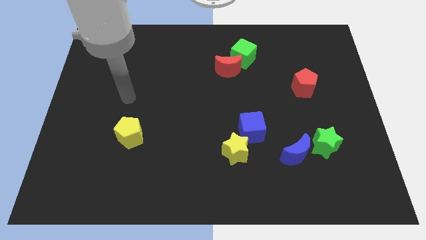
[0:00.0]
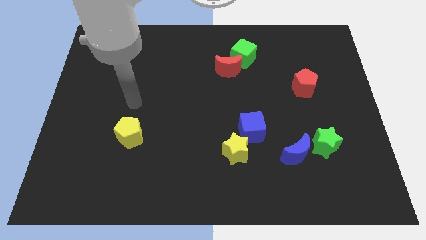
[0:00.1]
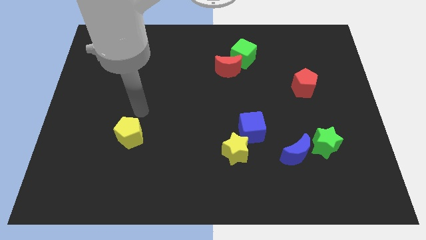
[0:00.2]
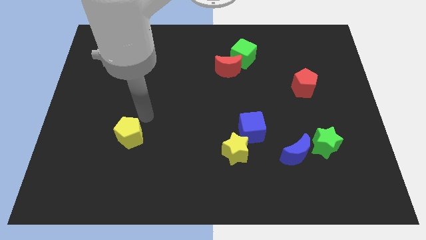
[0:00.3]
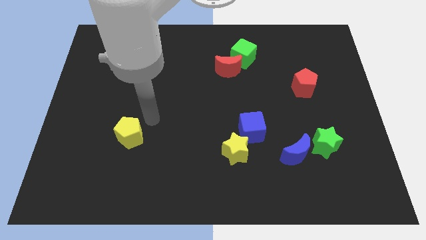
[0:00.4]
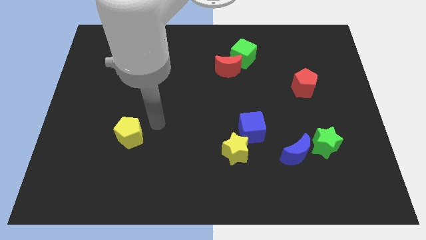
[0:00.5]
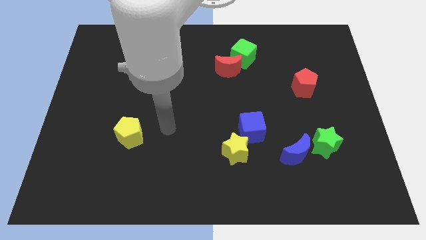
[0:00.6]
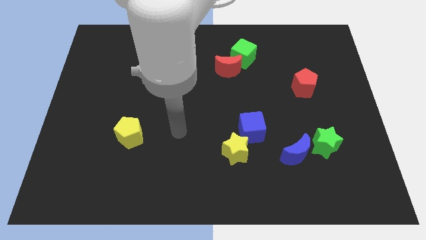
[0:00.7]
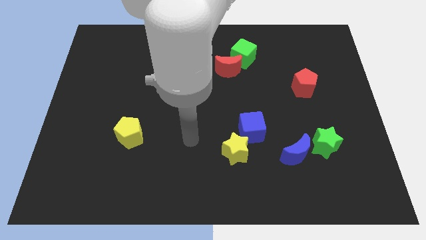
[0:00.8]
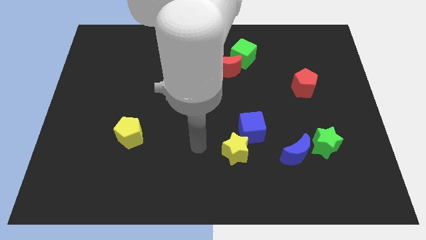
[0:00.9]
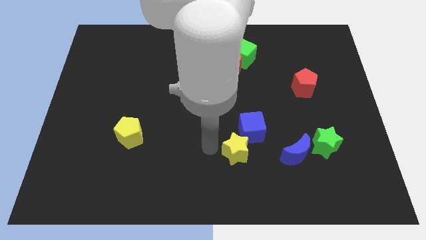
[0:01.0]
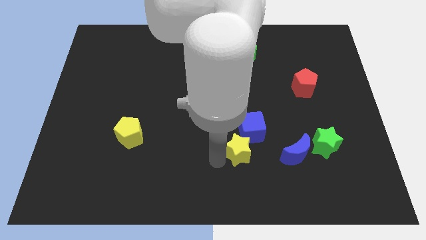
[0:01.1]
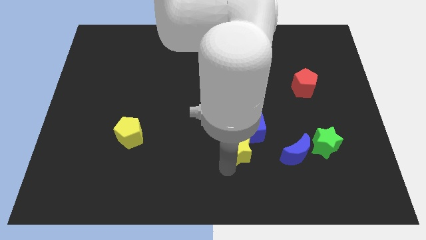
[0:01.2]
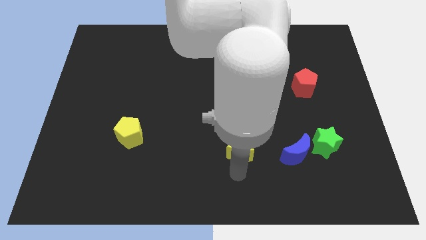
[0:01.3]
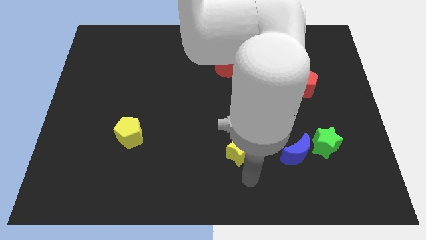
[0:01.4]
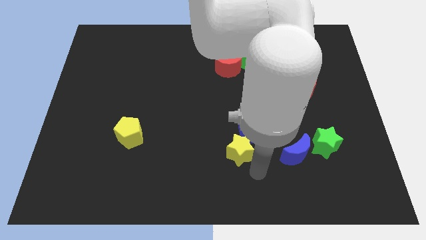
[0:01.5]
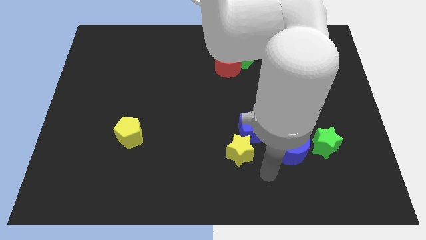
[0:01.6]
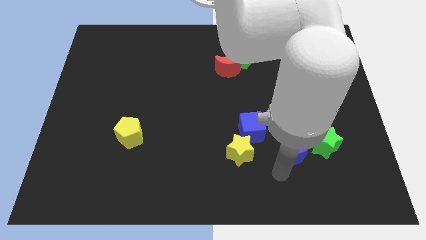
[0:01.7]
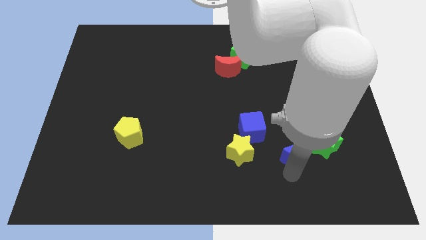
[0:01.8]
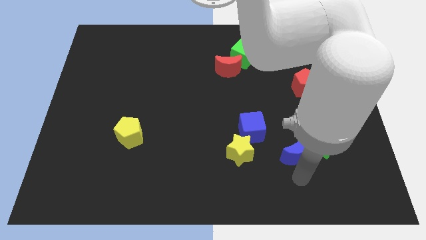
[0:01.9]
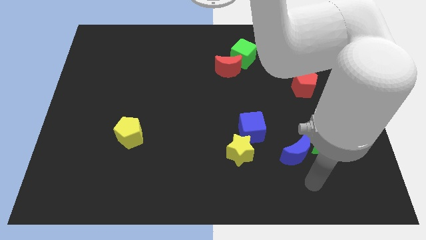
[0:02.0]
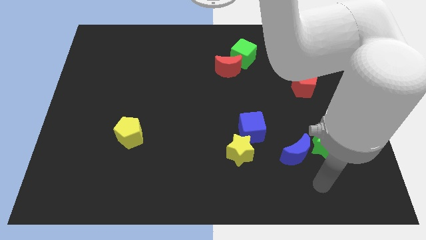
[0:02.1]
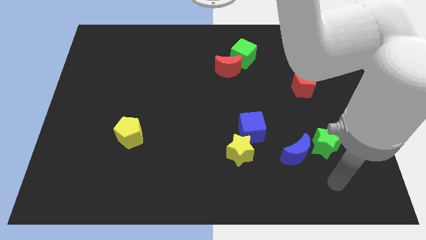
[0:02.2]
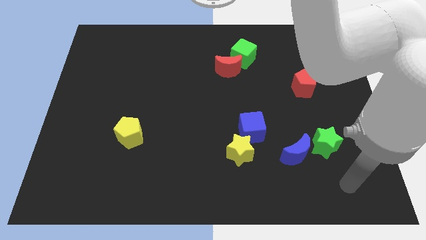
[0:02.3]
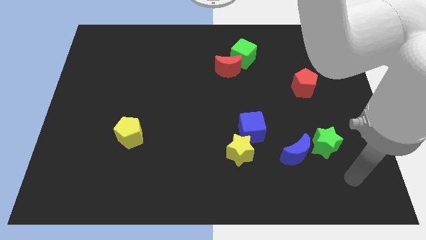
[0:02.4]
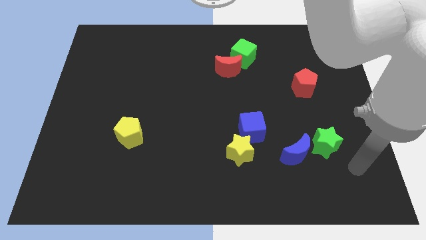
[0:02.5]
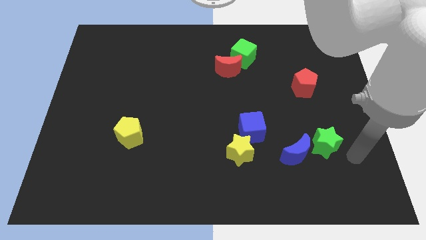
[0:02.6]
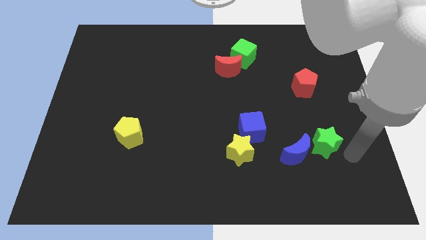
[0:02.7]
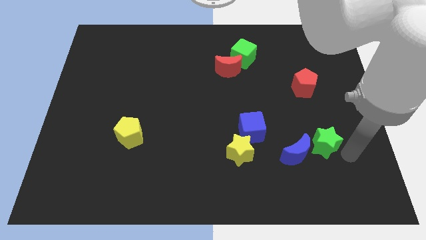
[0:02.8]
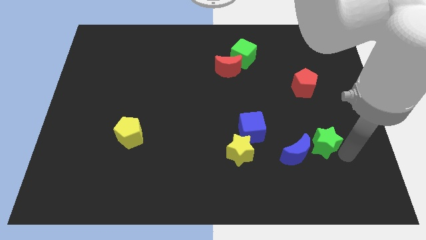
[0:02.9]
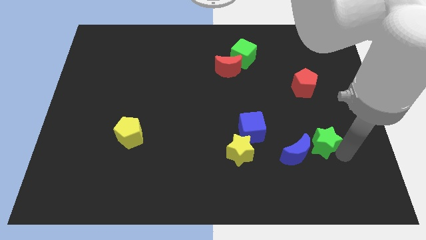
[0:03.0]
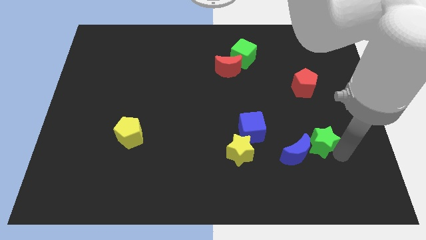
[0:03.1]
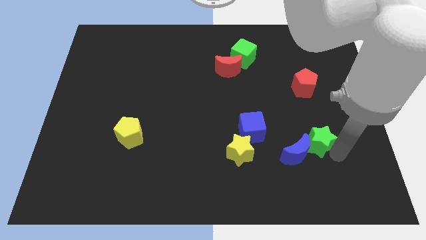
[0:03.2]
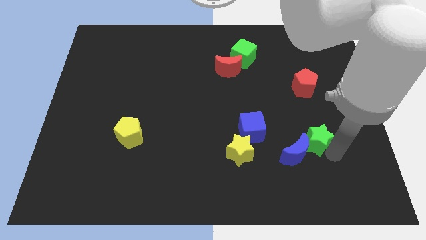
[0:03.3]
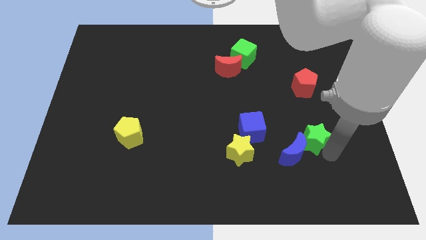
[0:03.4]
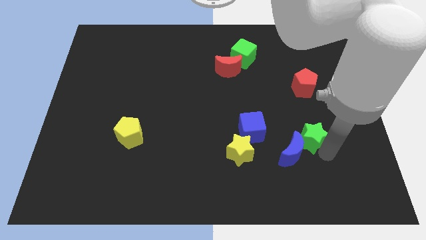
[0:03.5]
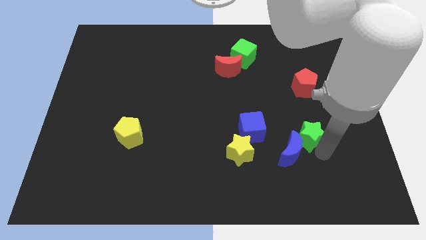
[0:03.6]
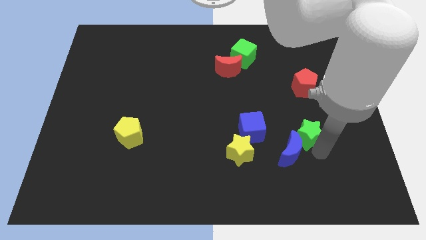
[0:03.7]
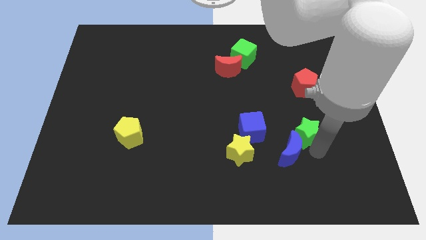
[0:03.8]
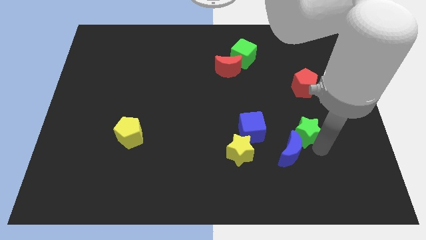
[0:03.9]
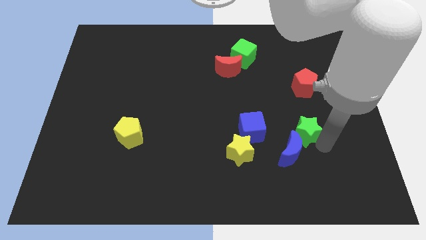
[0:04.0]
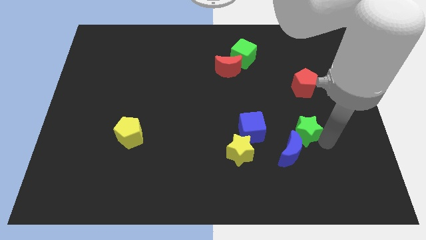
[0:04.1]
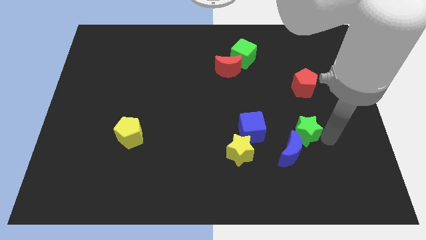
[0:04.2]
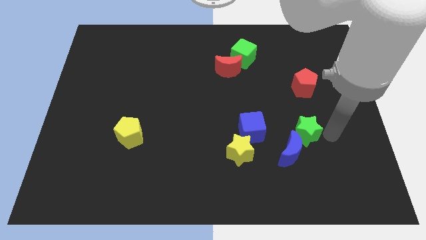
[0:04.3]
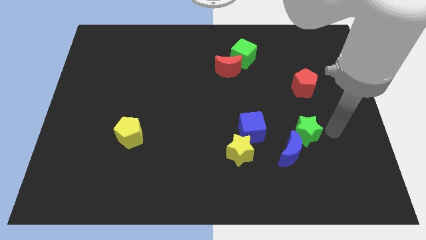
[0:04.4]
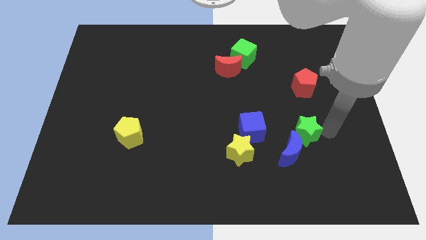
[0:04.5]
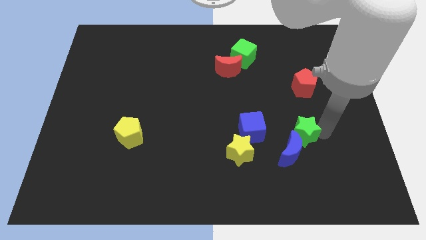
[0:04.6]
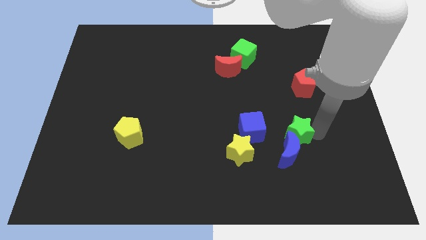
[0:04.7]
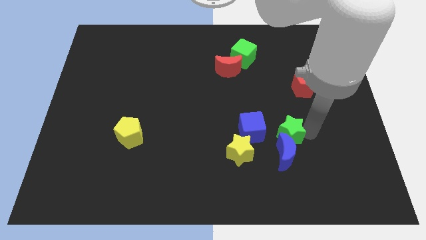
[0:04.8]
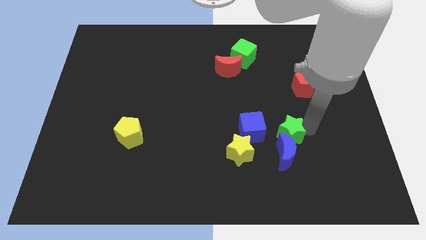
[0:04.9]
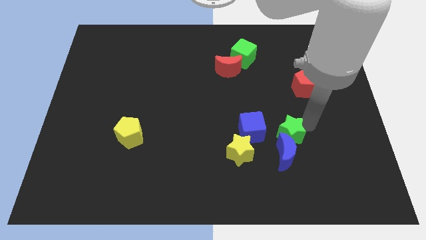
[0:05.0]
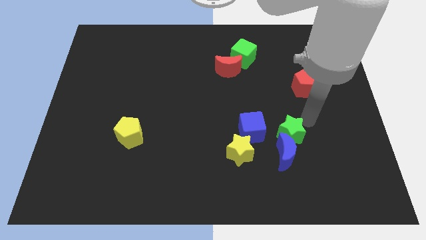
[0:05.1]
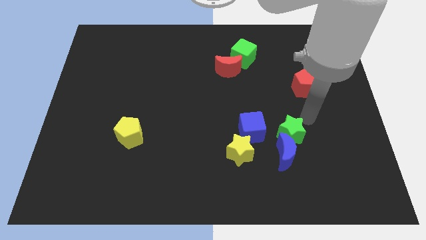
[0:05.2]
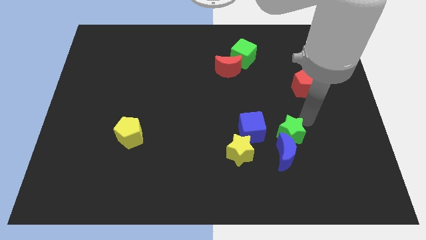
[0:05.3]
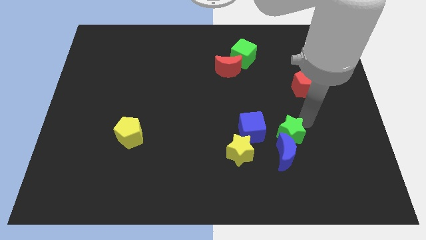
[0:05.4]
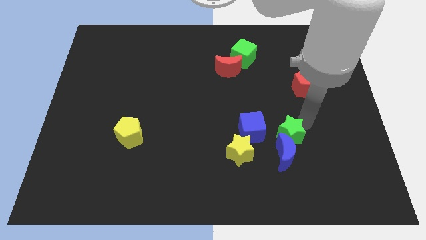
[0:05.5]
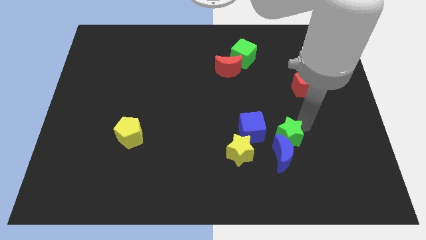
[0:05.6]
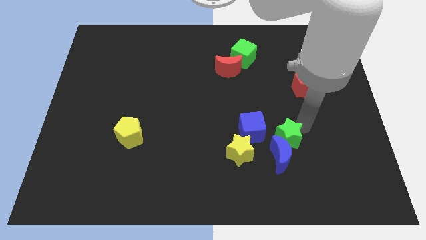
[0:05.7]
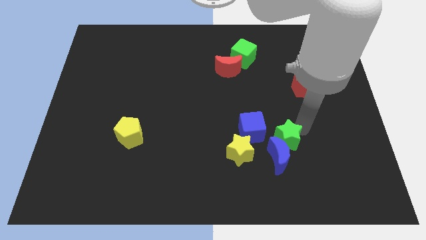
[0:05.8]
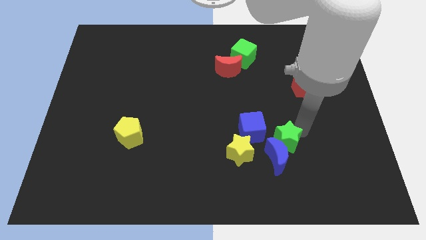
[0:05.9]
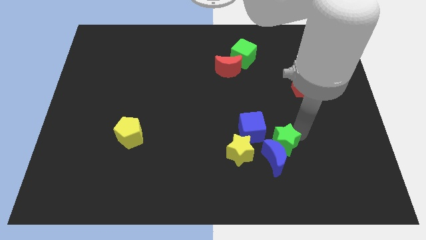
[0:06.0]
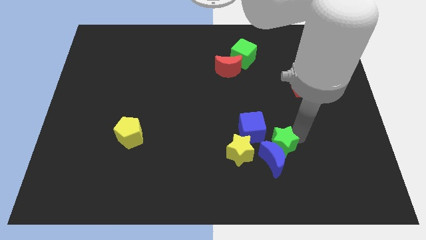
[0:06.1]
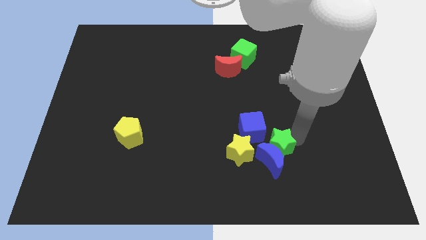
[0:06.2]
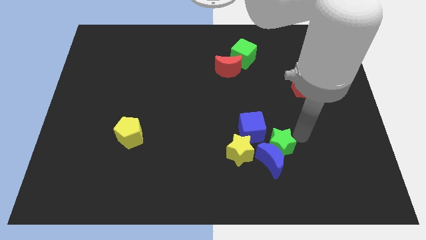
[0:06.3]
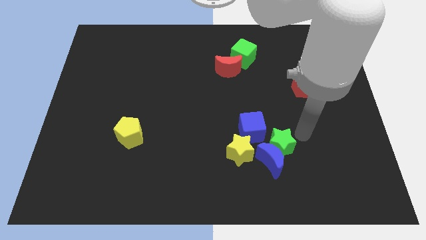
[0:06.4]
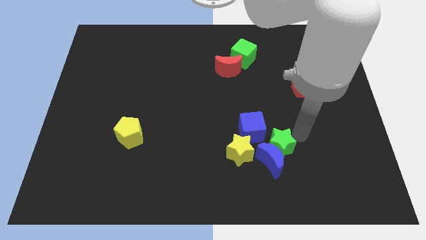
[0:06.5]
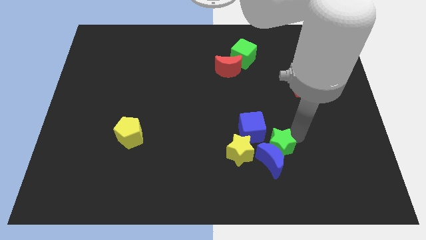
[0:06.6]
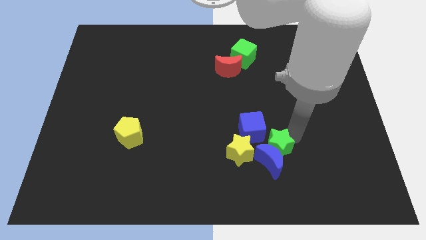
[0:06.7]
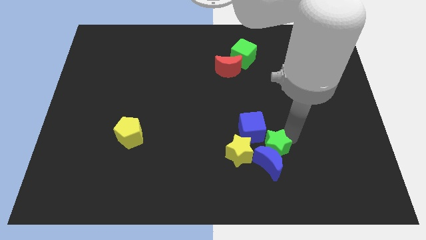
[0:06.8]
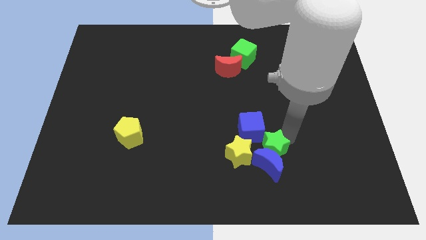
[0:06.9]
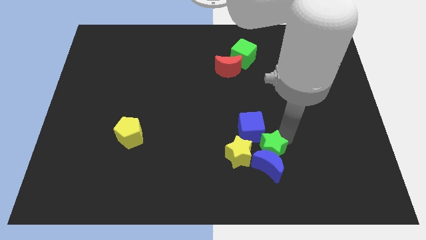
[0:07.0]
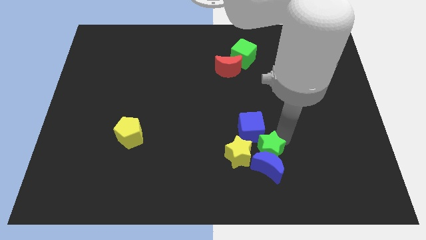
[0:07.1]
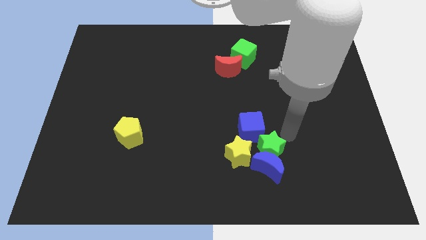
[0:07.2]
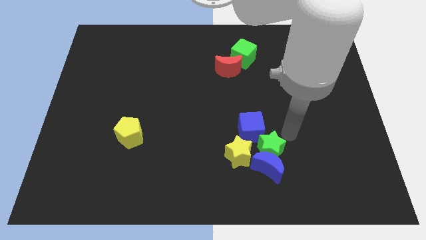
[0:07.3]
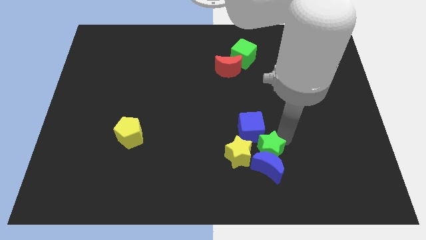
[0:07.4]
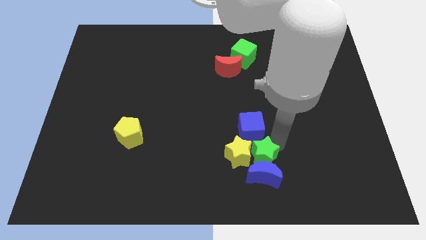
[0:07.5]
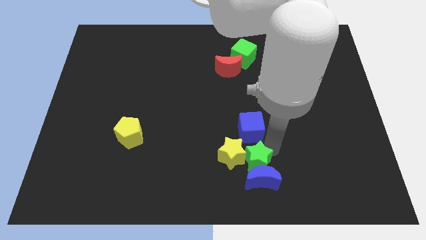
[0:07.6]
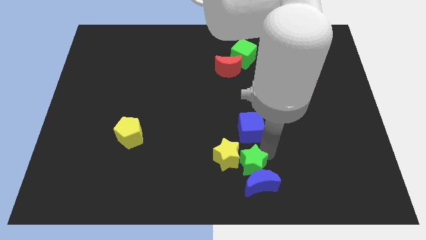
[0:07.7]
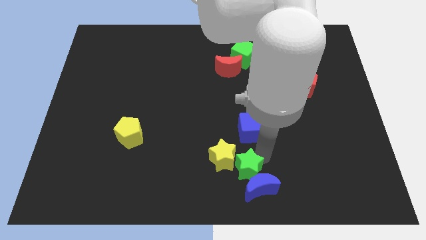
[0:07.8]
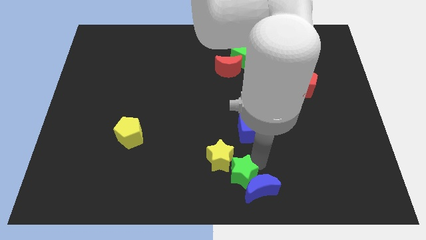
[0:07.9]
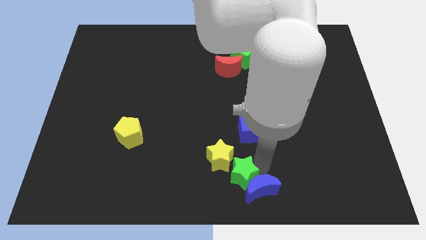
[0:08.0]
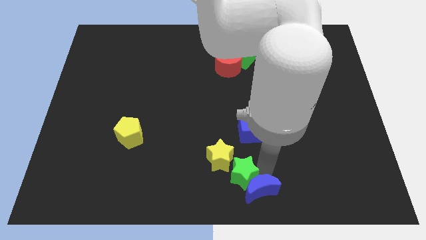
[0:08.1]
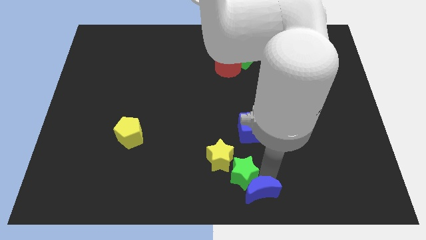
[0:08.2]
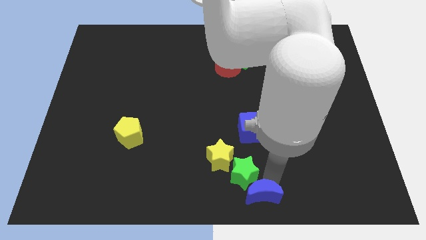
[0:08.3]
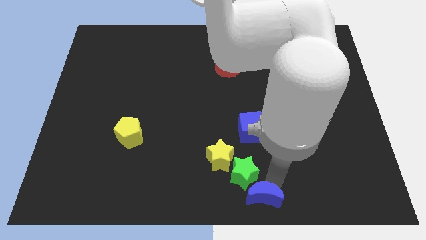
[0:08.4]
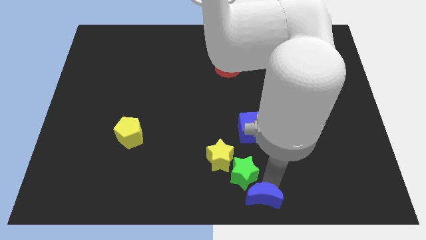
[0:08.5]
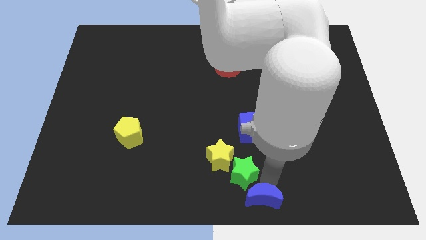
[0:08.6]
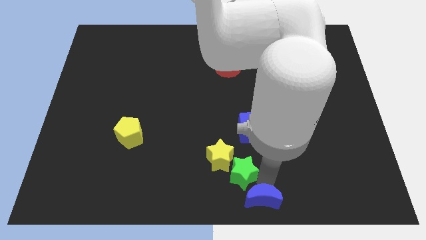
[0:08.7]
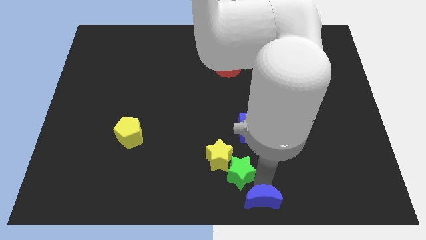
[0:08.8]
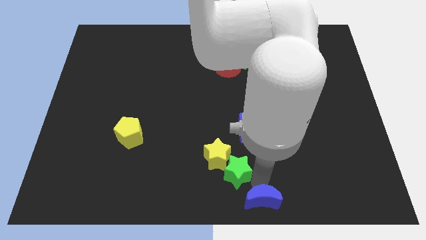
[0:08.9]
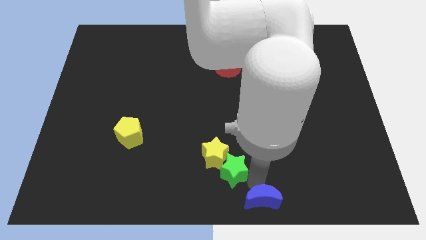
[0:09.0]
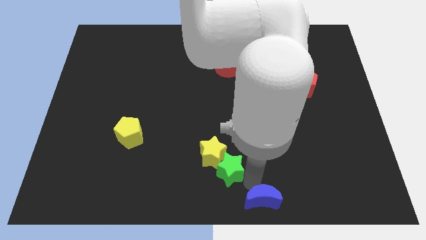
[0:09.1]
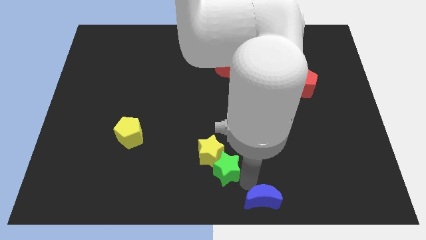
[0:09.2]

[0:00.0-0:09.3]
push the green star to the left
